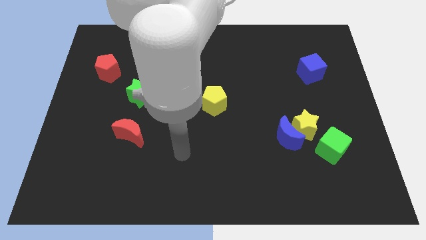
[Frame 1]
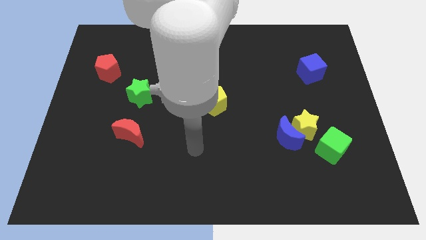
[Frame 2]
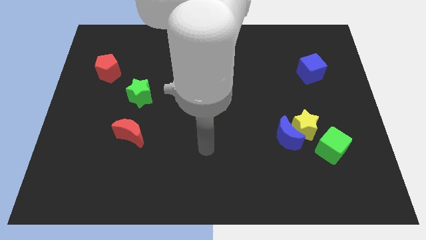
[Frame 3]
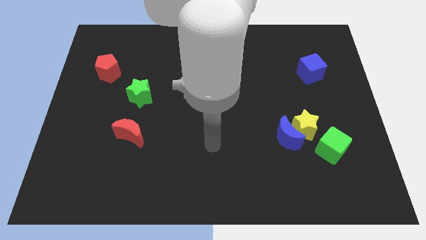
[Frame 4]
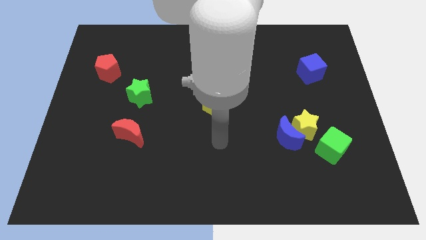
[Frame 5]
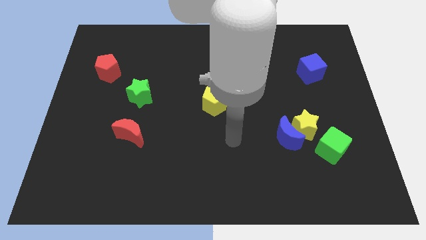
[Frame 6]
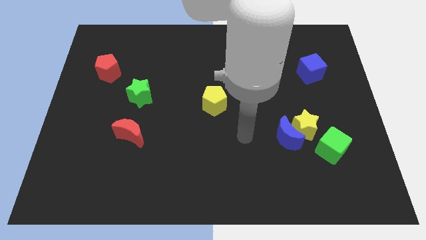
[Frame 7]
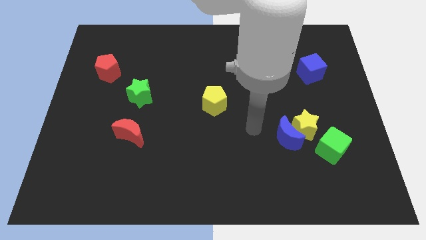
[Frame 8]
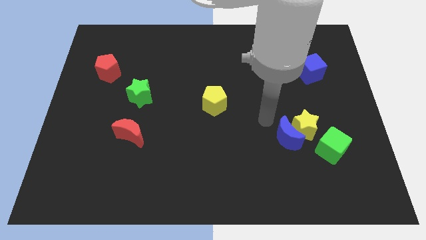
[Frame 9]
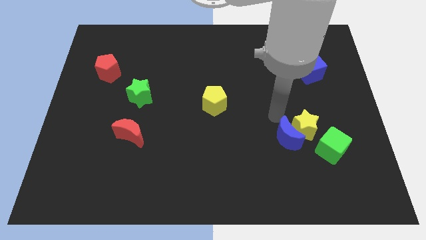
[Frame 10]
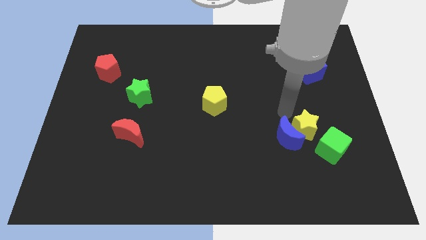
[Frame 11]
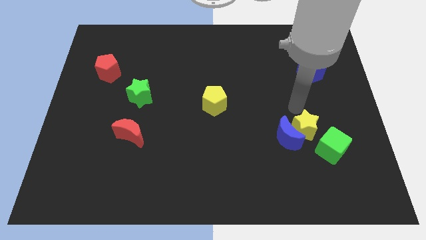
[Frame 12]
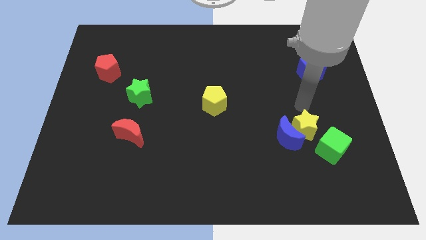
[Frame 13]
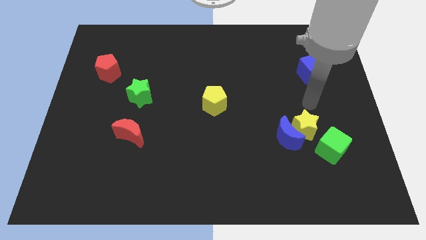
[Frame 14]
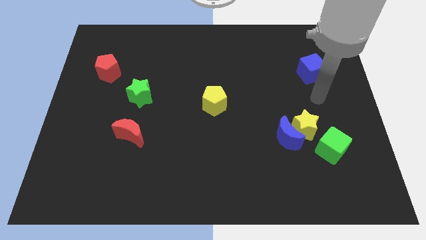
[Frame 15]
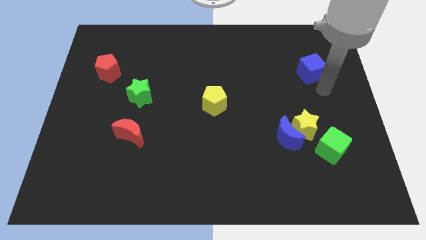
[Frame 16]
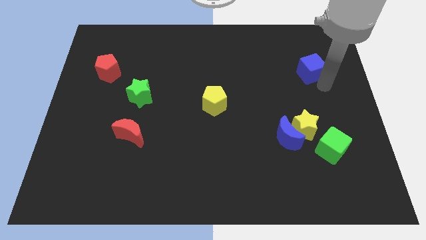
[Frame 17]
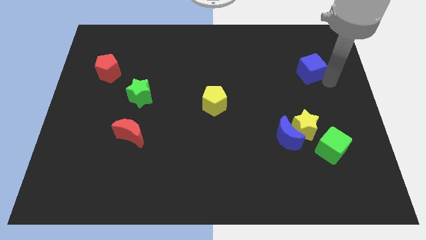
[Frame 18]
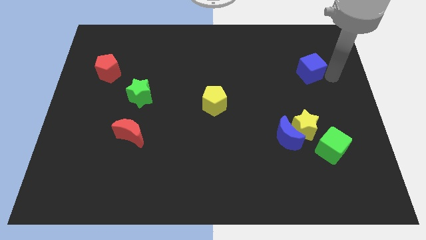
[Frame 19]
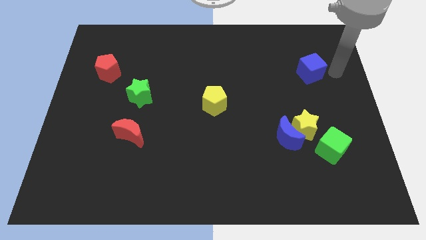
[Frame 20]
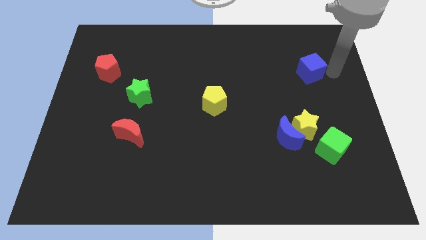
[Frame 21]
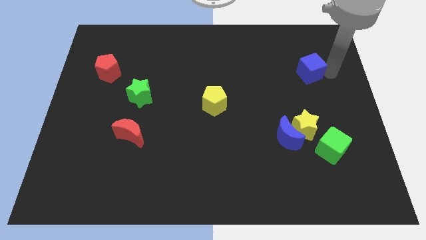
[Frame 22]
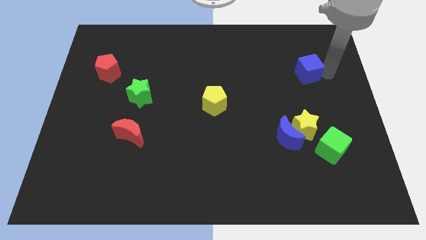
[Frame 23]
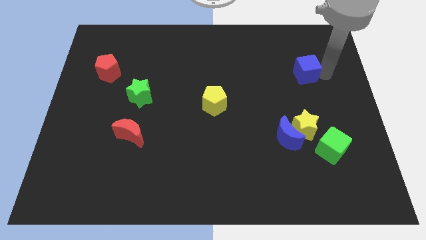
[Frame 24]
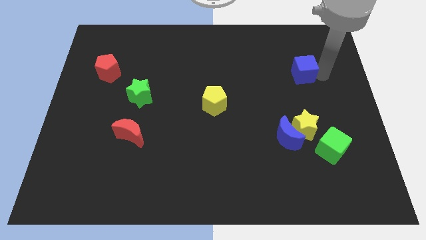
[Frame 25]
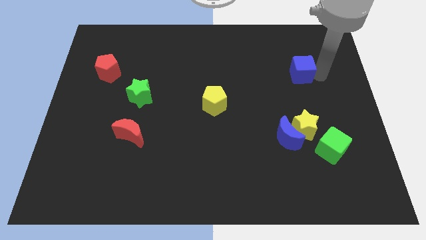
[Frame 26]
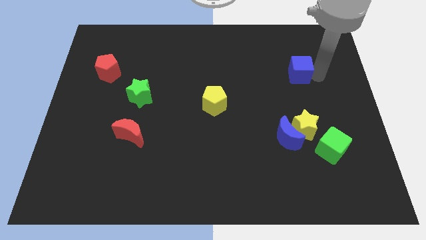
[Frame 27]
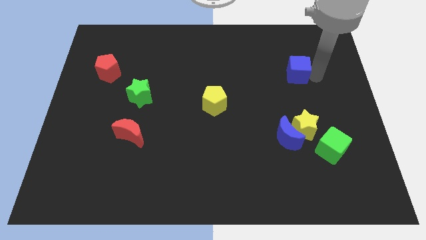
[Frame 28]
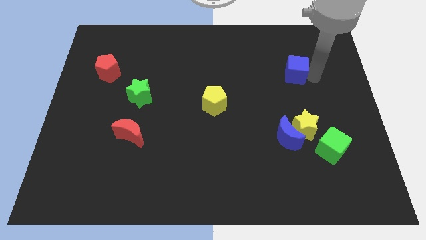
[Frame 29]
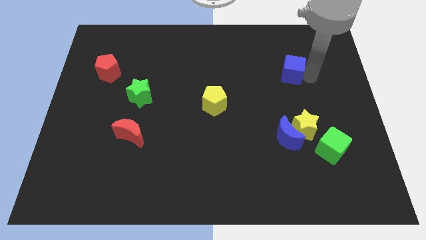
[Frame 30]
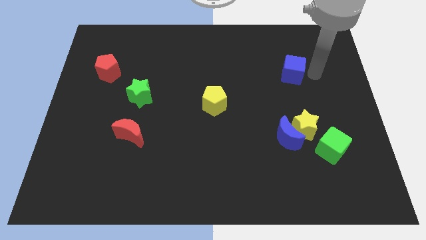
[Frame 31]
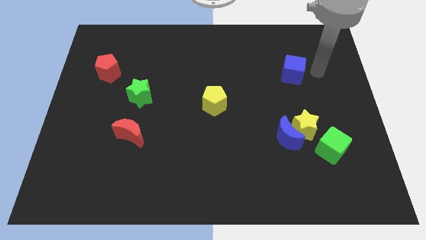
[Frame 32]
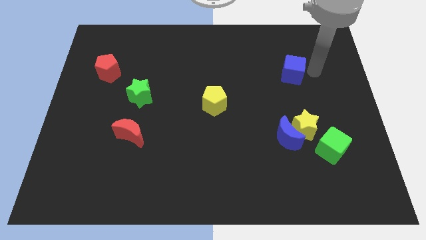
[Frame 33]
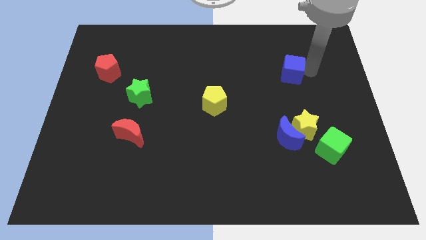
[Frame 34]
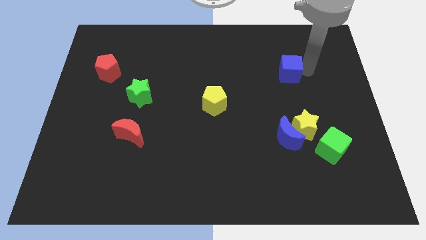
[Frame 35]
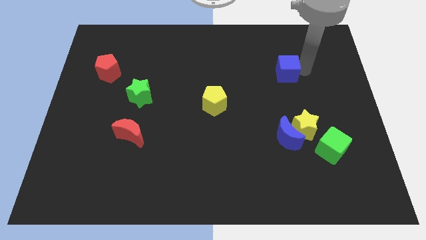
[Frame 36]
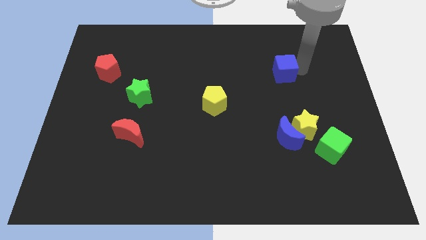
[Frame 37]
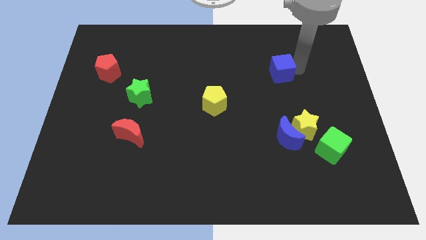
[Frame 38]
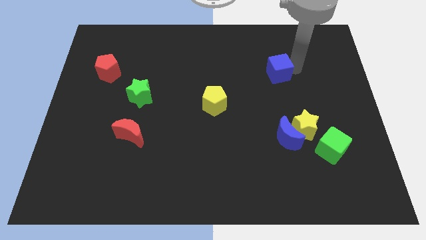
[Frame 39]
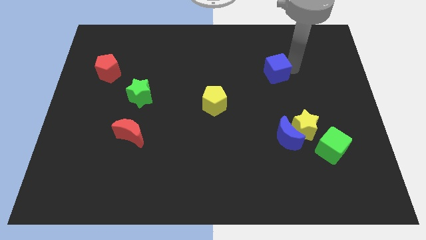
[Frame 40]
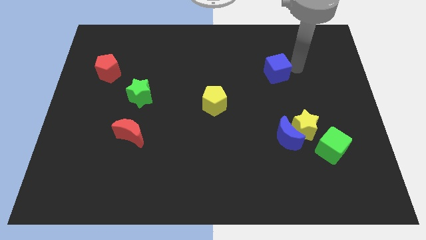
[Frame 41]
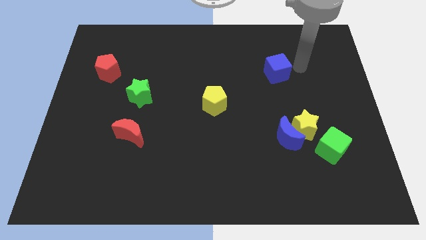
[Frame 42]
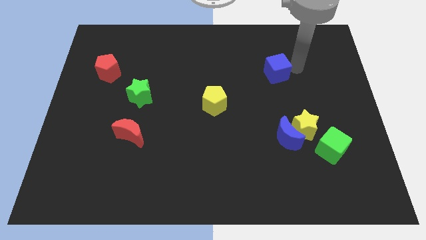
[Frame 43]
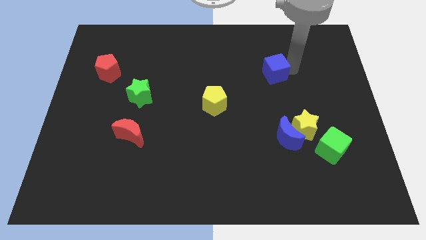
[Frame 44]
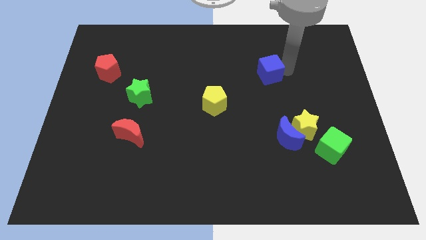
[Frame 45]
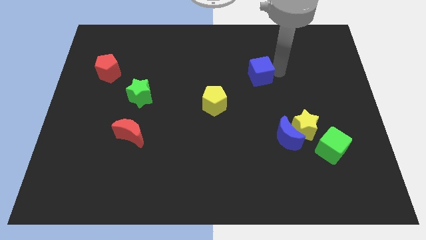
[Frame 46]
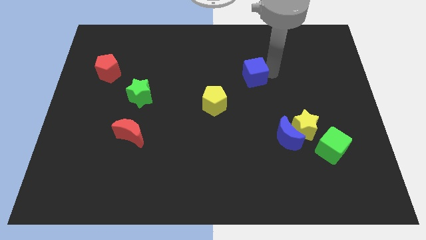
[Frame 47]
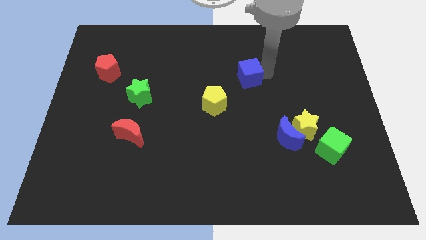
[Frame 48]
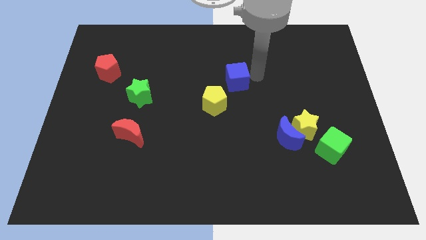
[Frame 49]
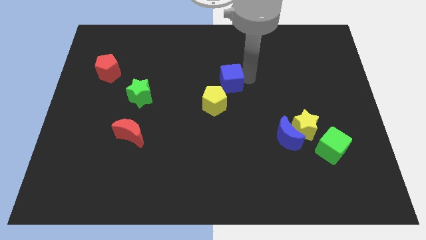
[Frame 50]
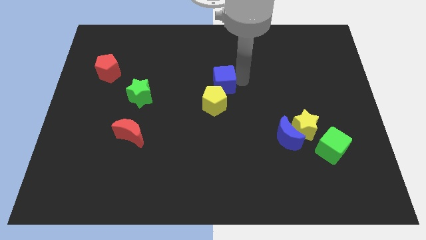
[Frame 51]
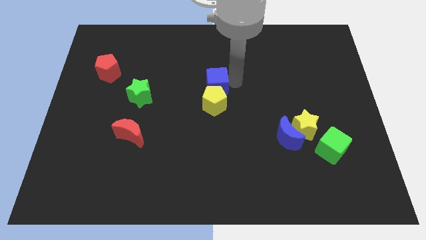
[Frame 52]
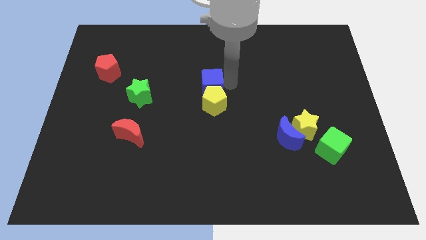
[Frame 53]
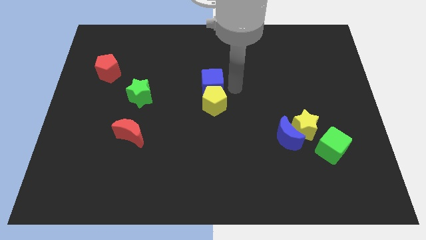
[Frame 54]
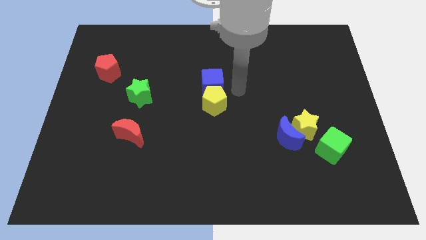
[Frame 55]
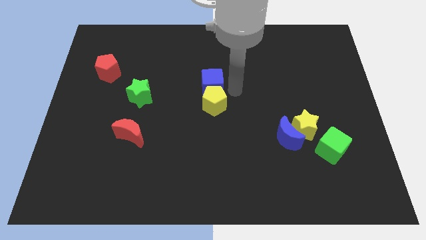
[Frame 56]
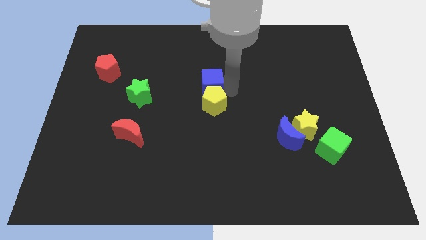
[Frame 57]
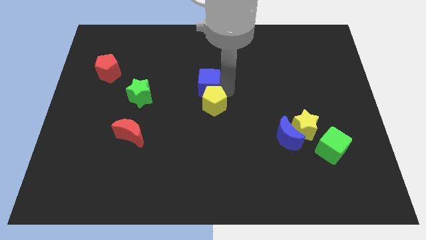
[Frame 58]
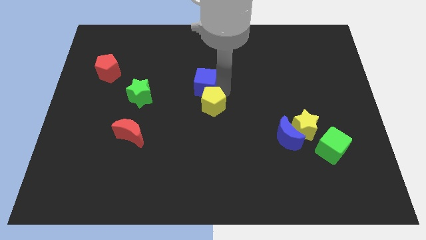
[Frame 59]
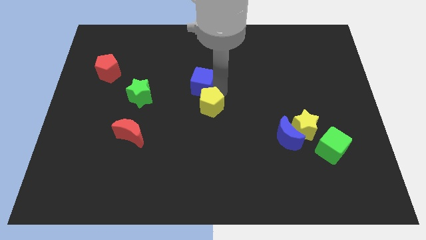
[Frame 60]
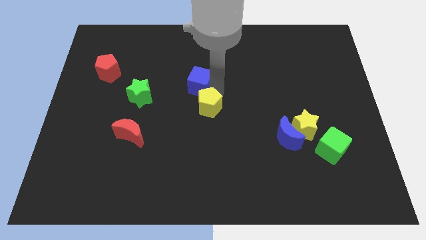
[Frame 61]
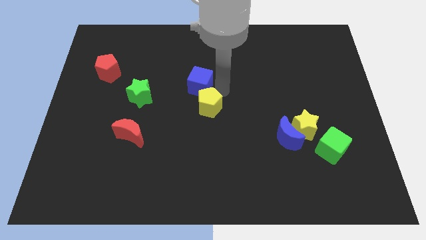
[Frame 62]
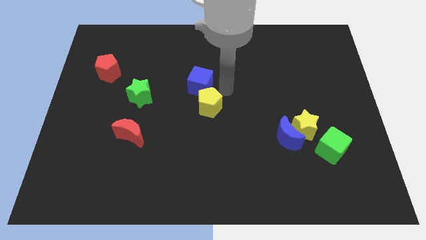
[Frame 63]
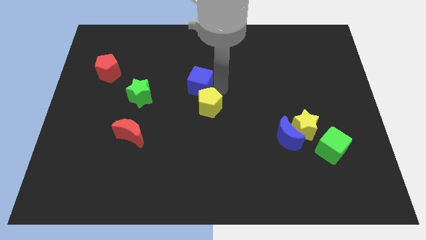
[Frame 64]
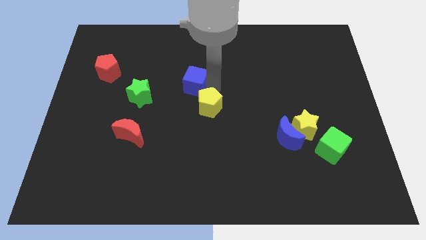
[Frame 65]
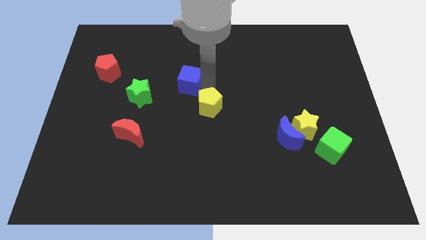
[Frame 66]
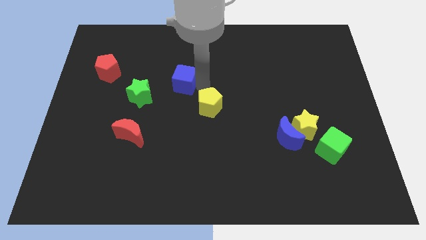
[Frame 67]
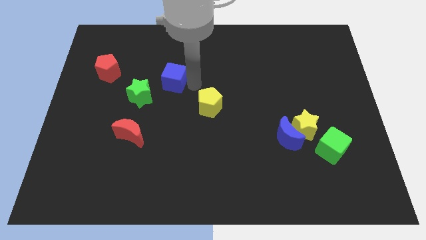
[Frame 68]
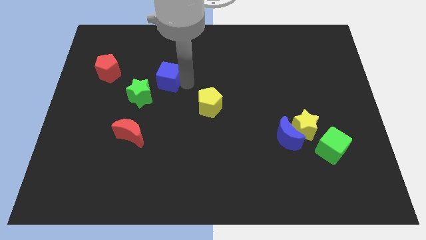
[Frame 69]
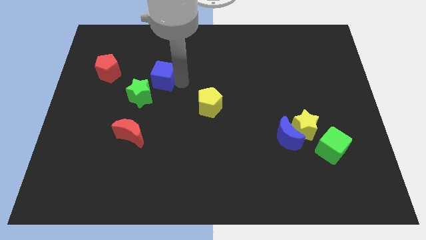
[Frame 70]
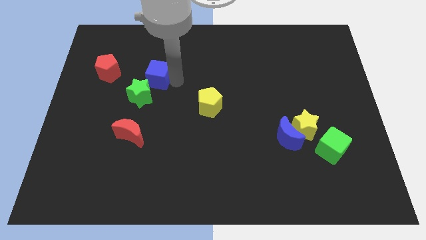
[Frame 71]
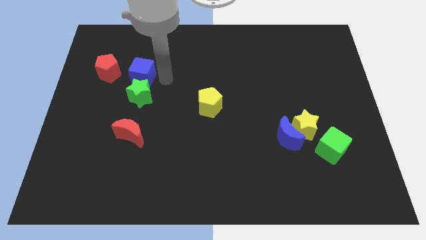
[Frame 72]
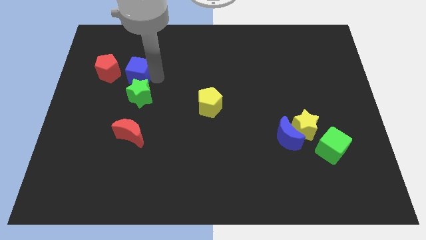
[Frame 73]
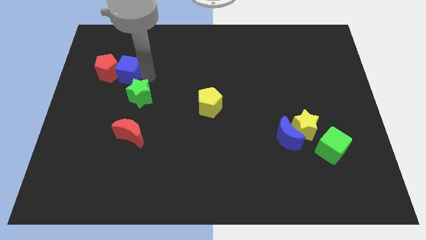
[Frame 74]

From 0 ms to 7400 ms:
push the blue cube towards the red pentagon
